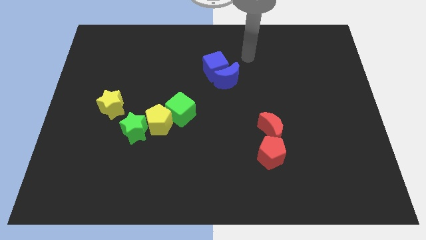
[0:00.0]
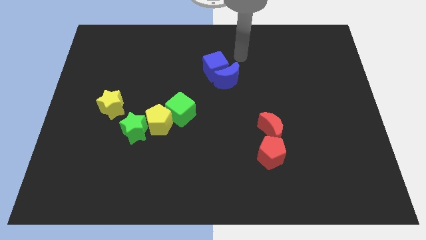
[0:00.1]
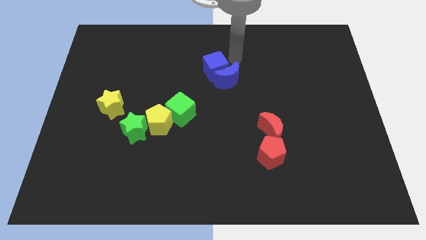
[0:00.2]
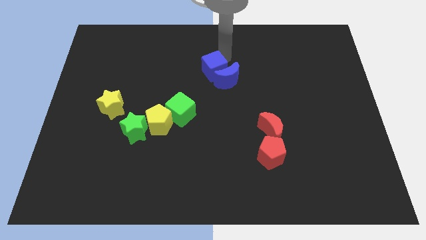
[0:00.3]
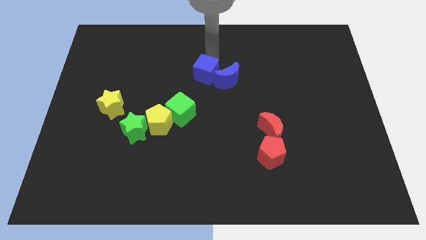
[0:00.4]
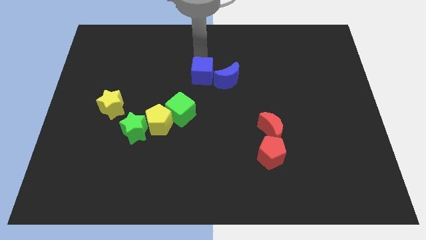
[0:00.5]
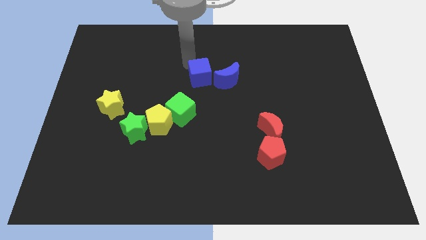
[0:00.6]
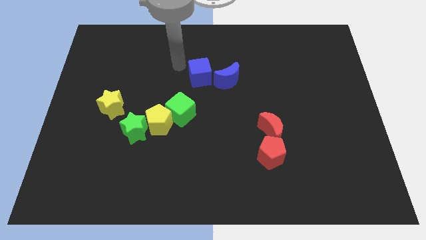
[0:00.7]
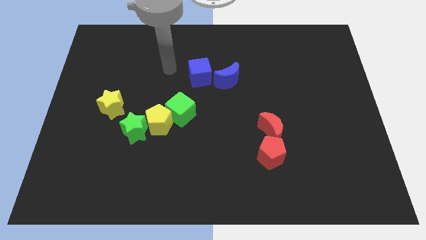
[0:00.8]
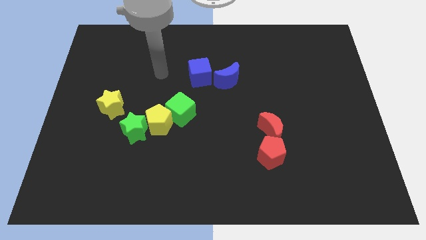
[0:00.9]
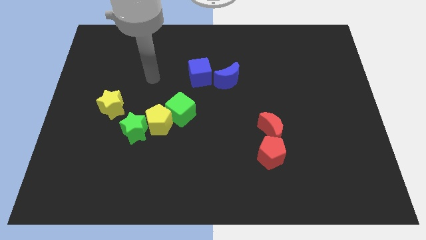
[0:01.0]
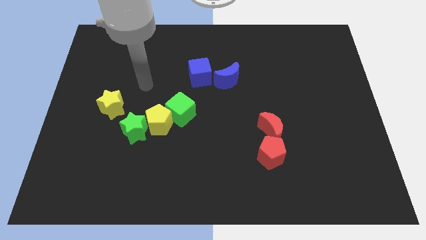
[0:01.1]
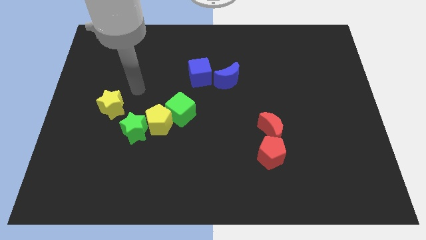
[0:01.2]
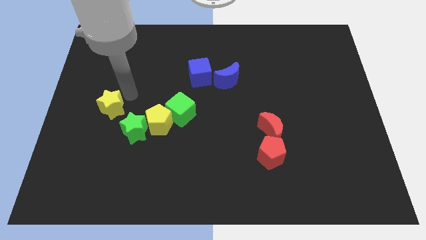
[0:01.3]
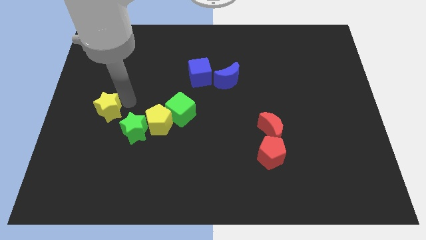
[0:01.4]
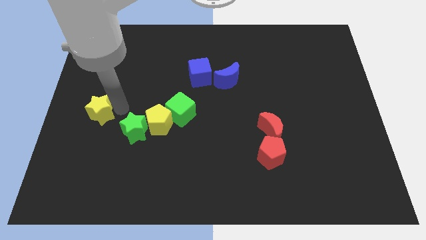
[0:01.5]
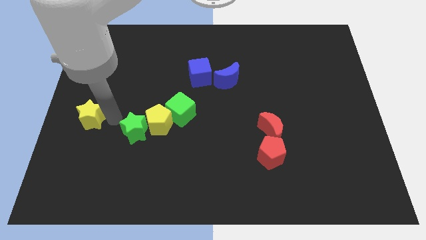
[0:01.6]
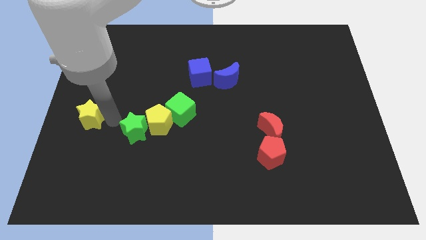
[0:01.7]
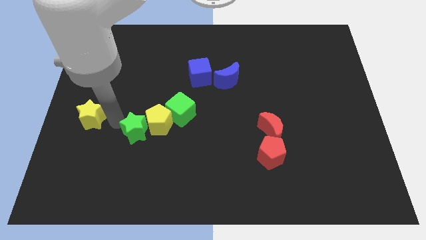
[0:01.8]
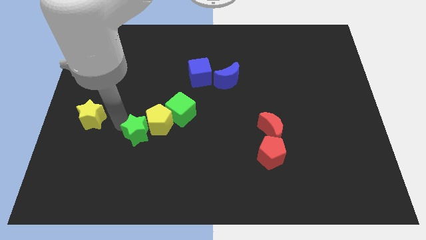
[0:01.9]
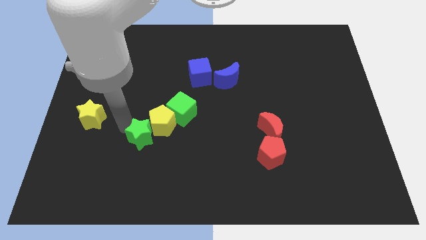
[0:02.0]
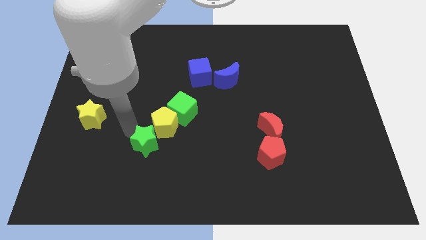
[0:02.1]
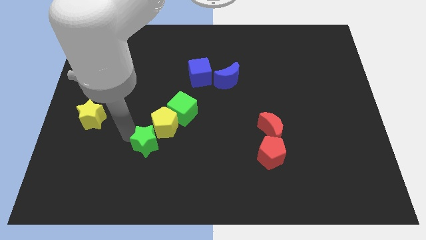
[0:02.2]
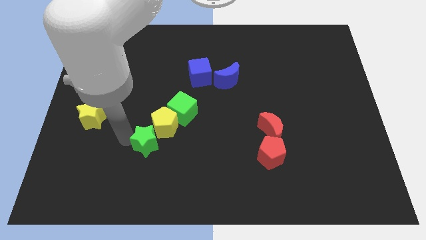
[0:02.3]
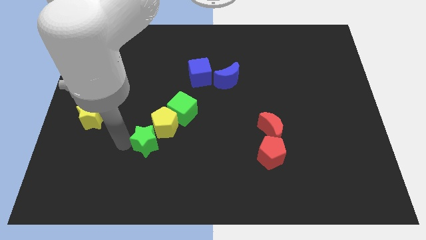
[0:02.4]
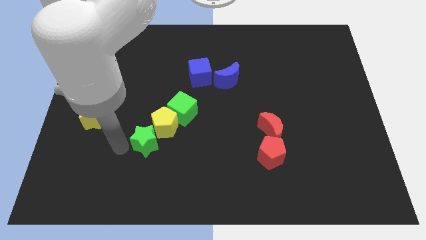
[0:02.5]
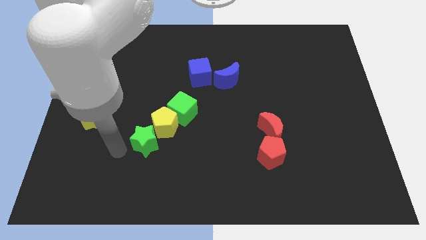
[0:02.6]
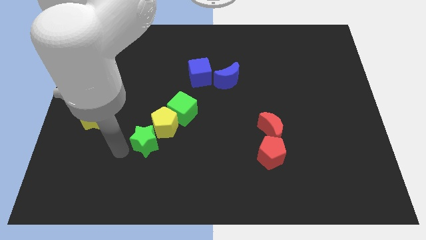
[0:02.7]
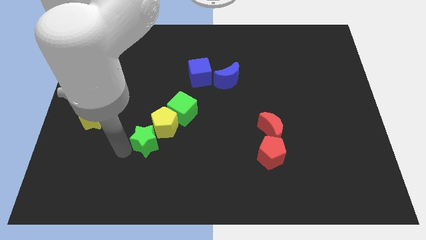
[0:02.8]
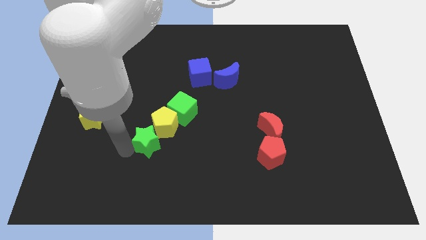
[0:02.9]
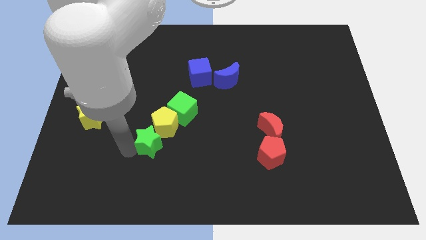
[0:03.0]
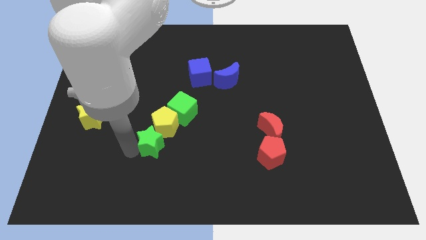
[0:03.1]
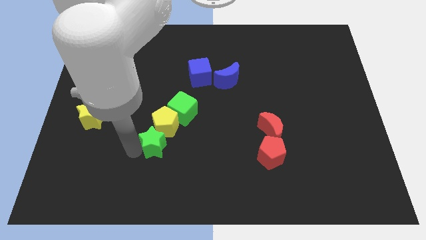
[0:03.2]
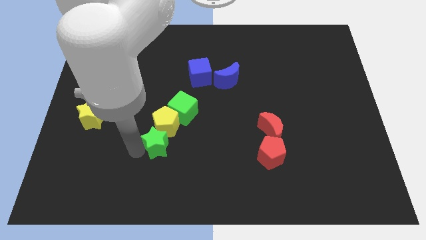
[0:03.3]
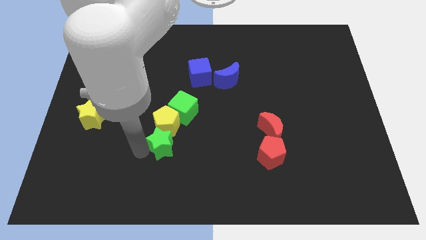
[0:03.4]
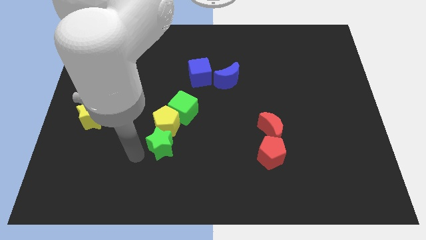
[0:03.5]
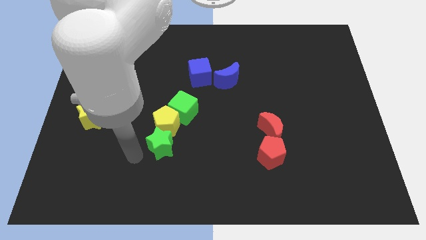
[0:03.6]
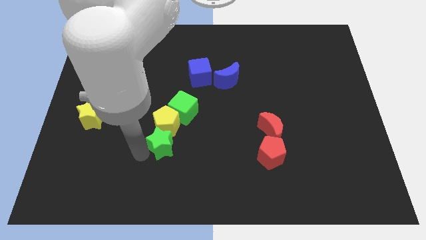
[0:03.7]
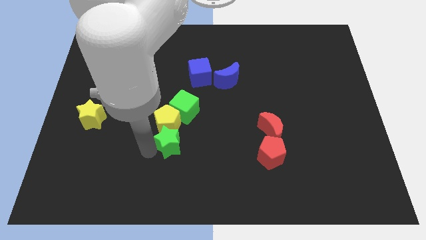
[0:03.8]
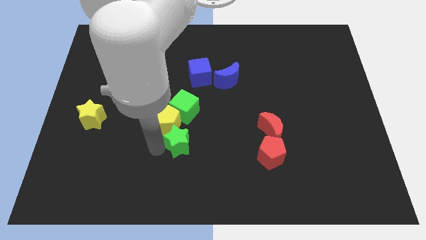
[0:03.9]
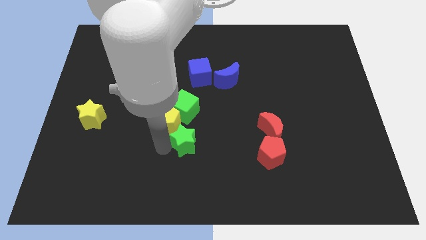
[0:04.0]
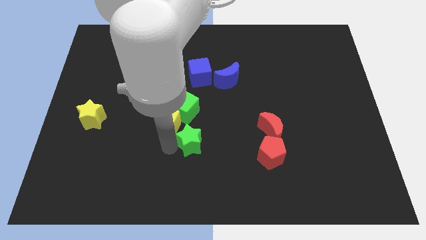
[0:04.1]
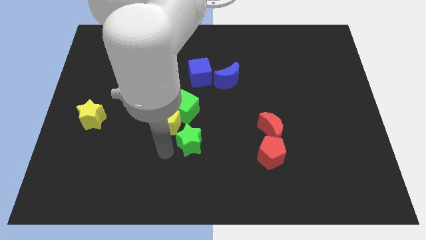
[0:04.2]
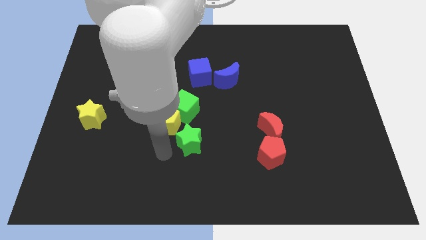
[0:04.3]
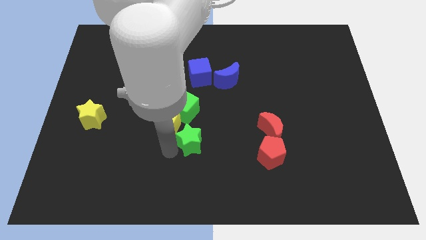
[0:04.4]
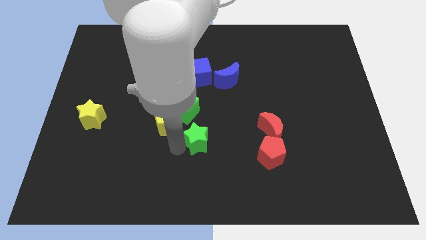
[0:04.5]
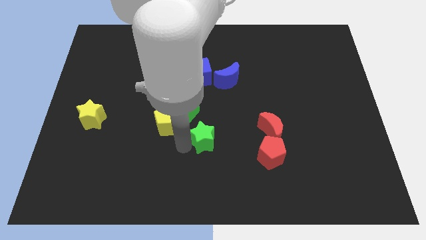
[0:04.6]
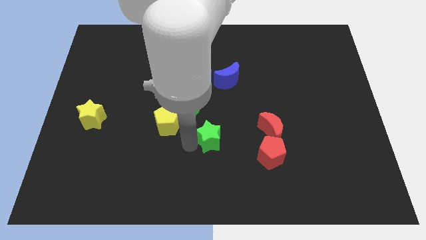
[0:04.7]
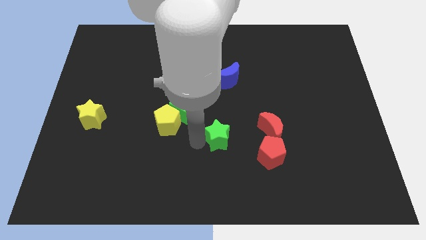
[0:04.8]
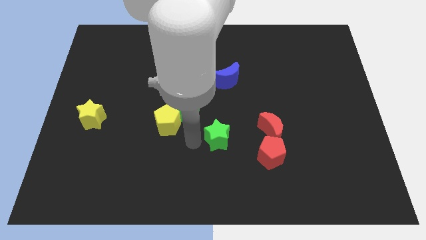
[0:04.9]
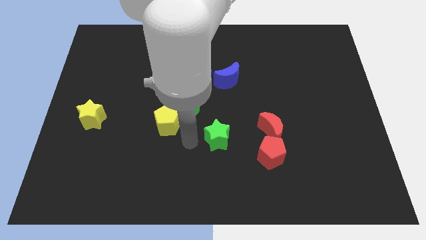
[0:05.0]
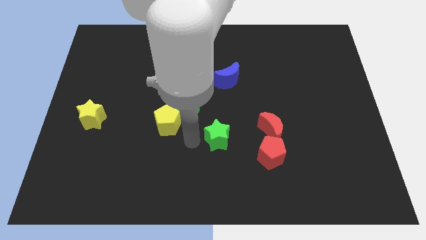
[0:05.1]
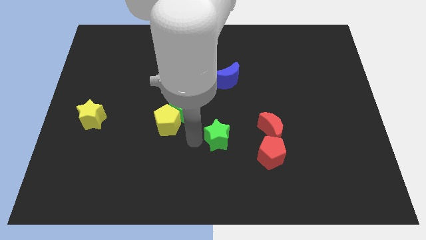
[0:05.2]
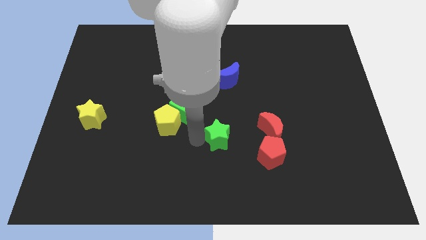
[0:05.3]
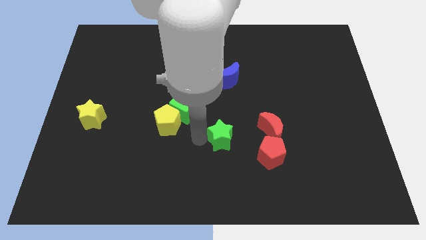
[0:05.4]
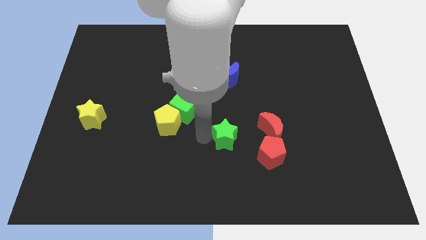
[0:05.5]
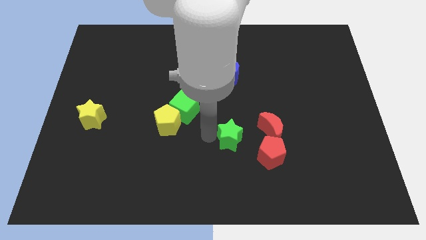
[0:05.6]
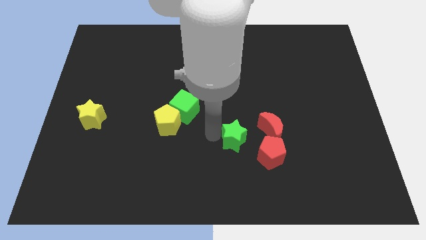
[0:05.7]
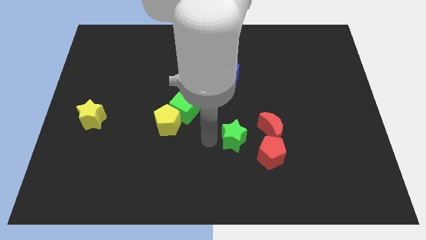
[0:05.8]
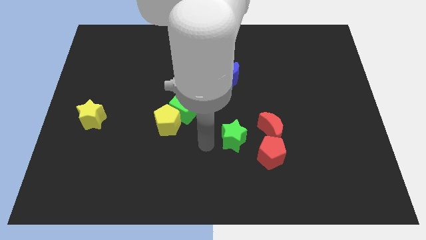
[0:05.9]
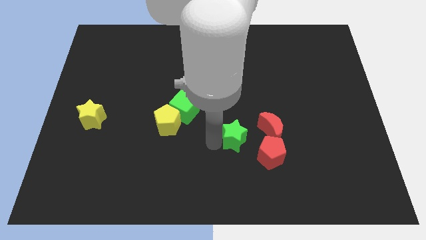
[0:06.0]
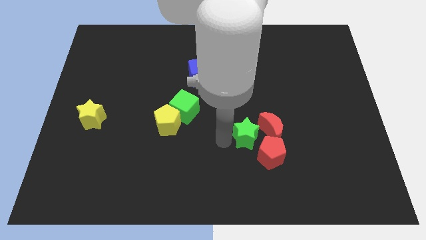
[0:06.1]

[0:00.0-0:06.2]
move the green star close to the red moon
